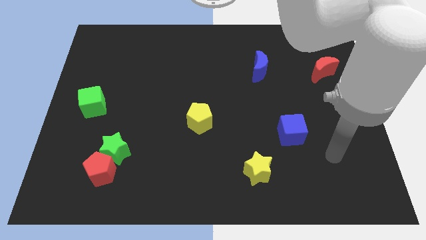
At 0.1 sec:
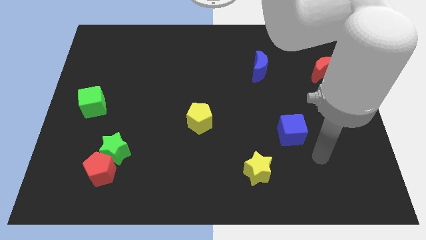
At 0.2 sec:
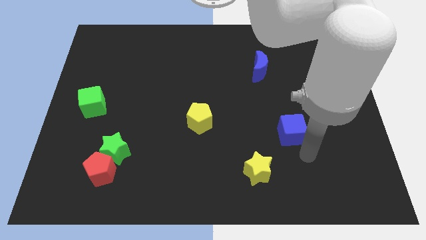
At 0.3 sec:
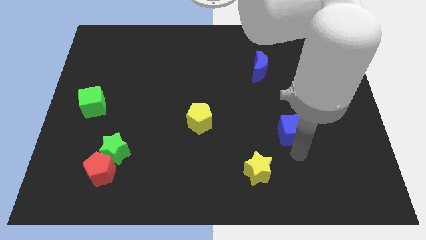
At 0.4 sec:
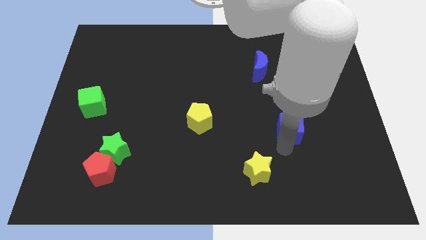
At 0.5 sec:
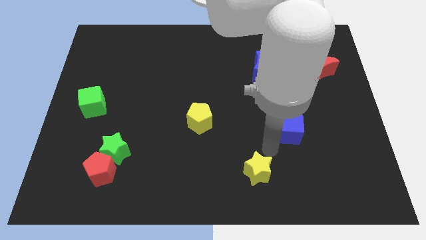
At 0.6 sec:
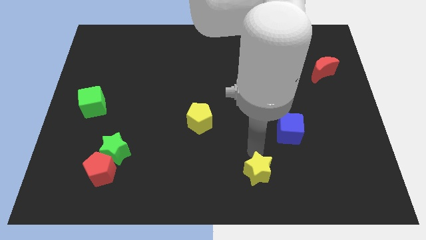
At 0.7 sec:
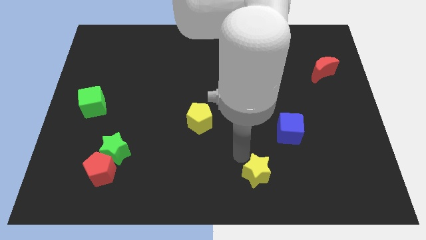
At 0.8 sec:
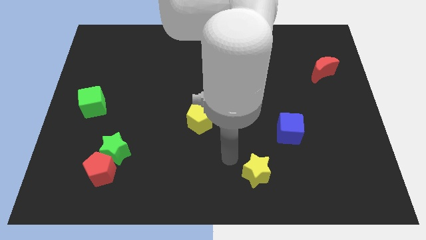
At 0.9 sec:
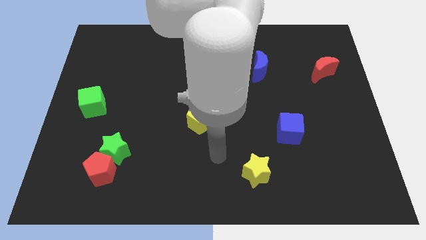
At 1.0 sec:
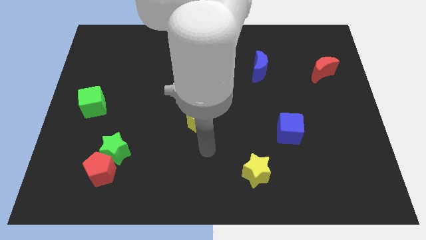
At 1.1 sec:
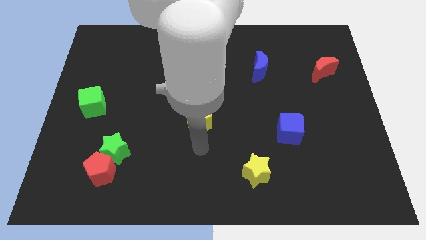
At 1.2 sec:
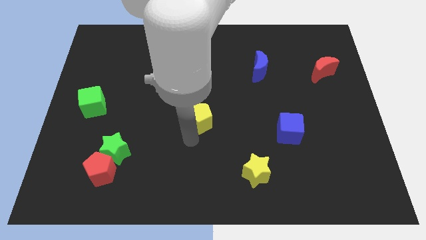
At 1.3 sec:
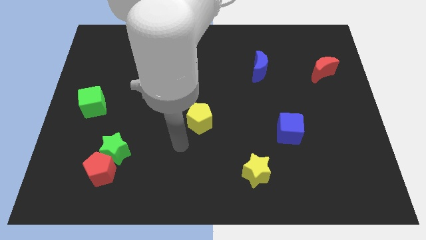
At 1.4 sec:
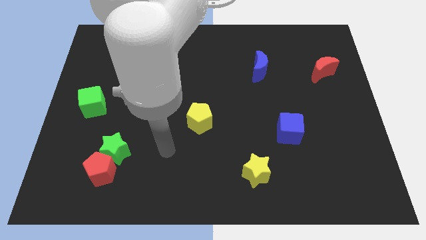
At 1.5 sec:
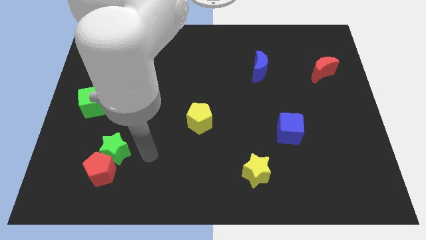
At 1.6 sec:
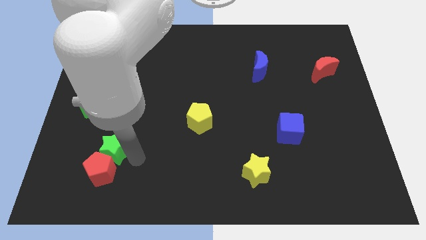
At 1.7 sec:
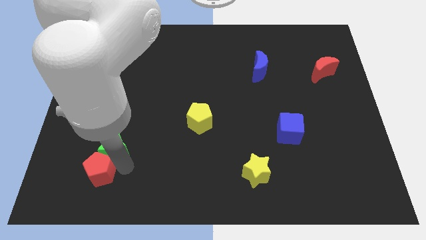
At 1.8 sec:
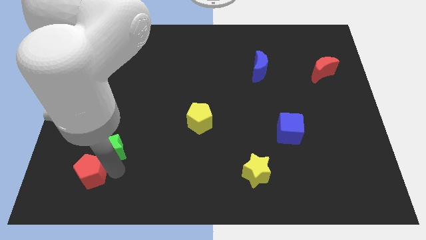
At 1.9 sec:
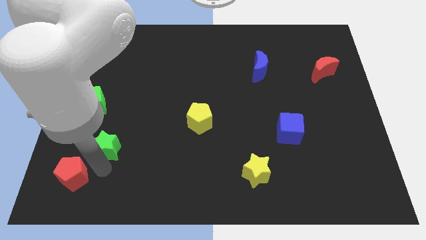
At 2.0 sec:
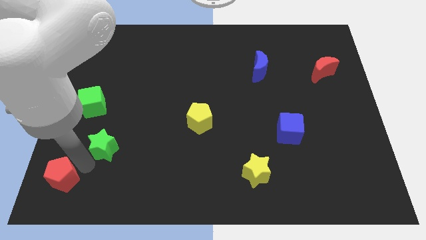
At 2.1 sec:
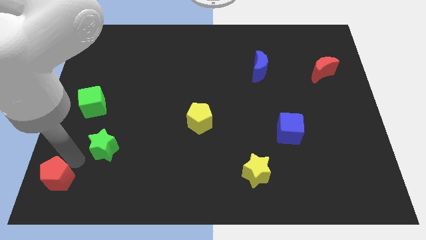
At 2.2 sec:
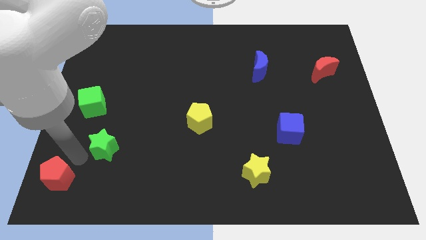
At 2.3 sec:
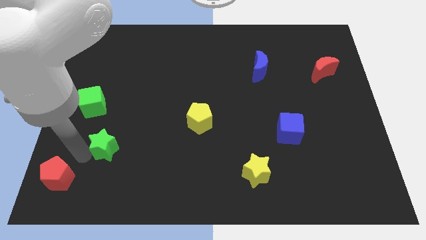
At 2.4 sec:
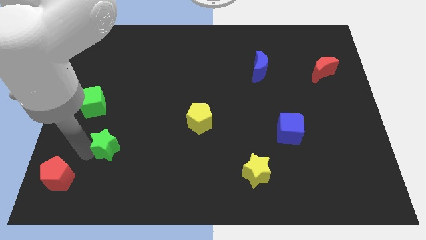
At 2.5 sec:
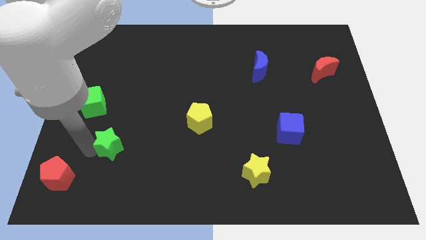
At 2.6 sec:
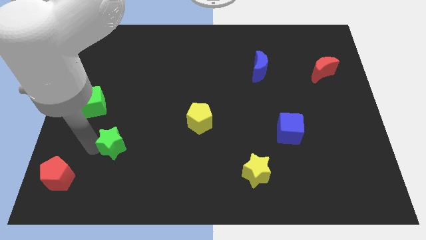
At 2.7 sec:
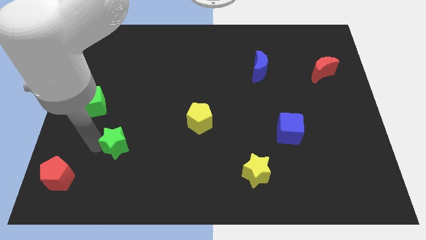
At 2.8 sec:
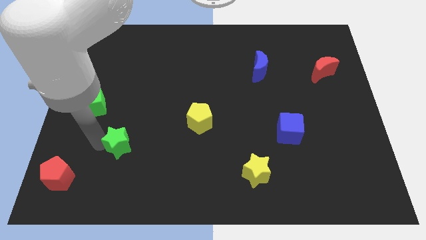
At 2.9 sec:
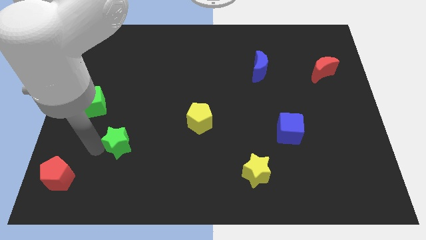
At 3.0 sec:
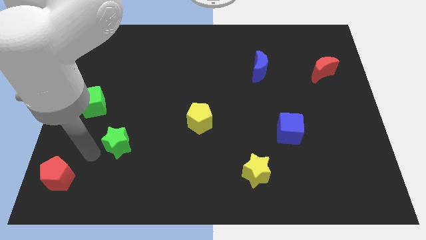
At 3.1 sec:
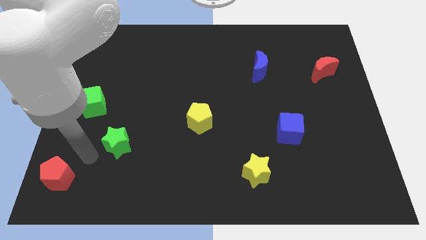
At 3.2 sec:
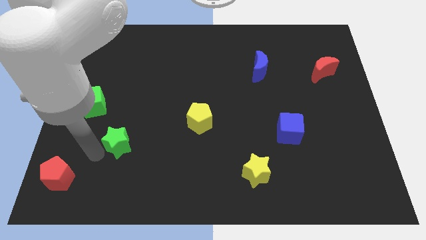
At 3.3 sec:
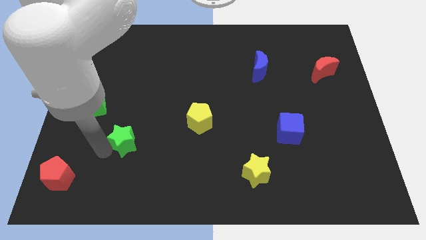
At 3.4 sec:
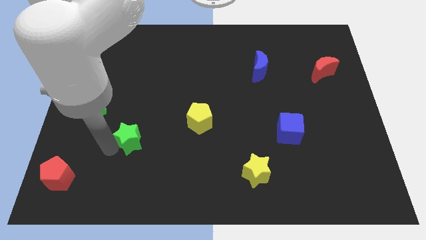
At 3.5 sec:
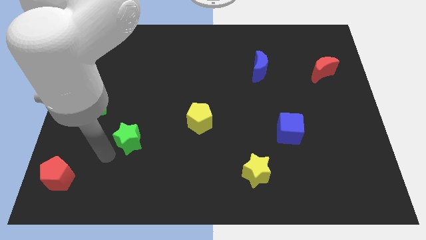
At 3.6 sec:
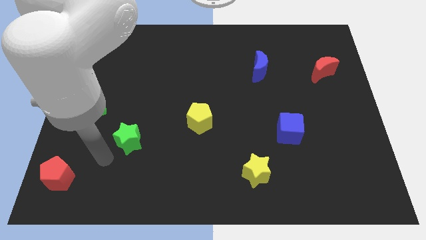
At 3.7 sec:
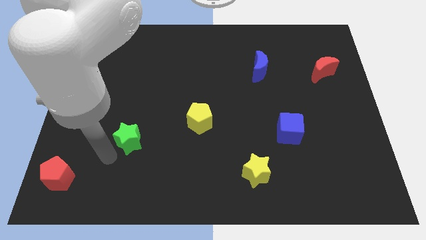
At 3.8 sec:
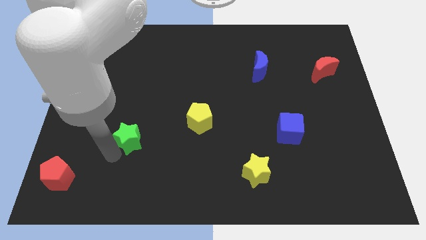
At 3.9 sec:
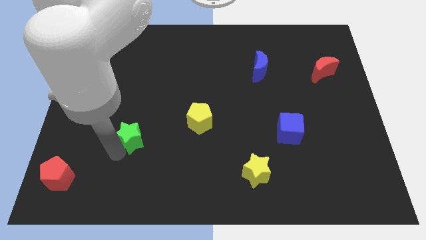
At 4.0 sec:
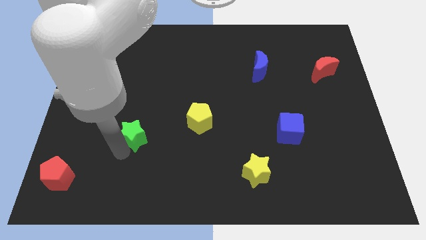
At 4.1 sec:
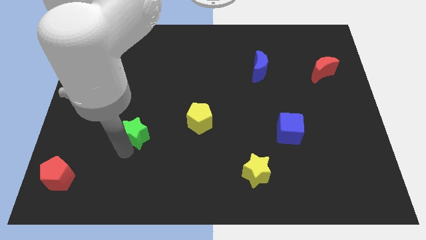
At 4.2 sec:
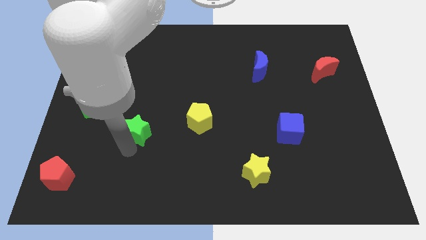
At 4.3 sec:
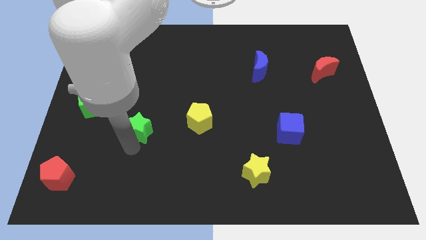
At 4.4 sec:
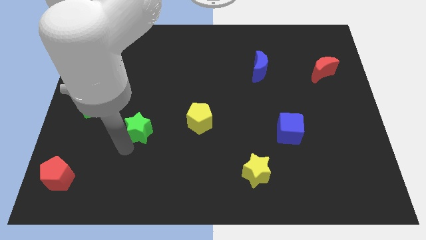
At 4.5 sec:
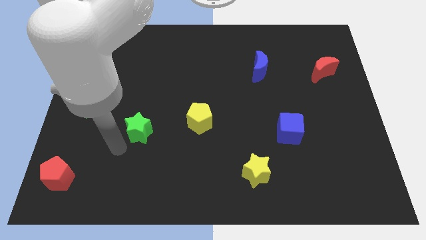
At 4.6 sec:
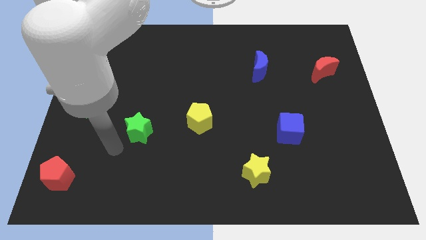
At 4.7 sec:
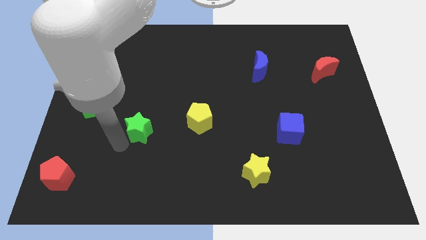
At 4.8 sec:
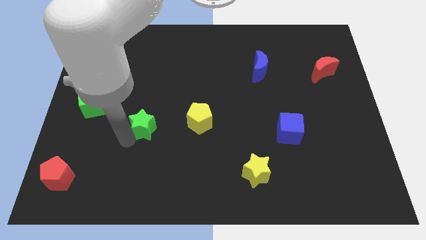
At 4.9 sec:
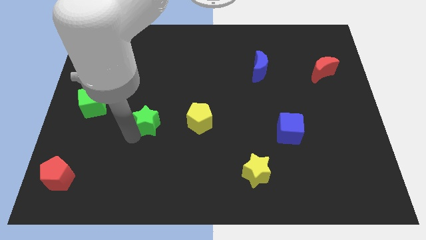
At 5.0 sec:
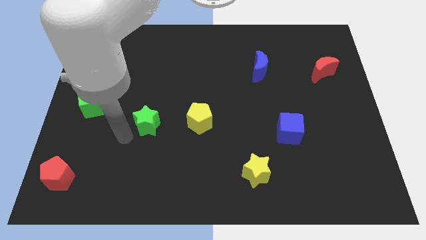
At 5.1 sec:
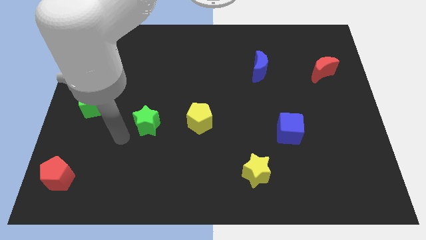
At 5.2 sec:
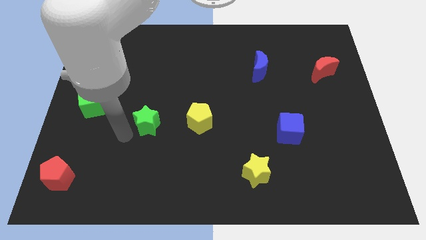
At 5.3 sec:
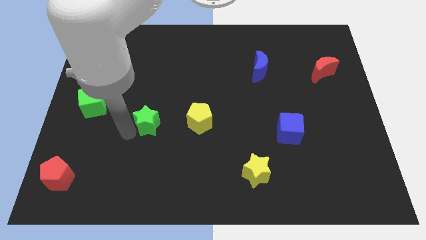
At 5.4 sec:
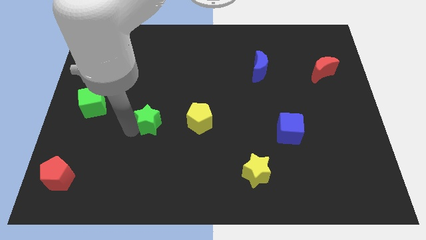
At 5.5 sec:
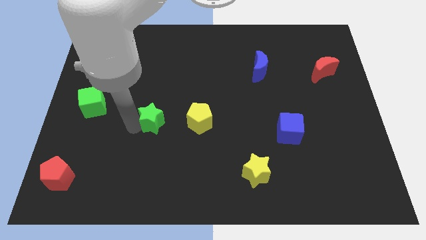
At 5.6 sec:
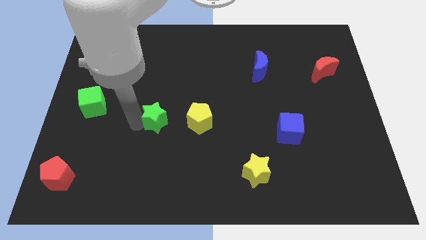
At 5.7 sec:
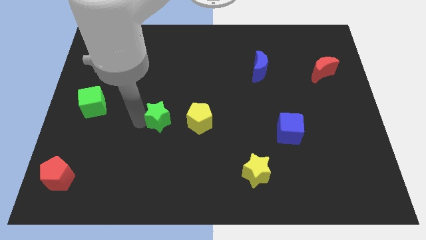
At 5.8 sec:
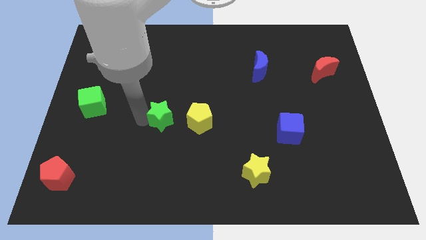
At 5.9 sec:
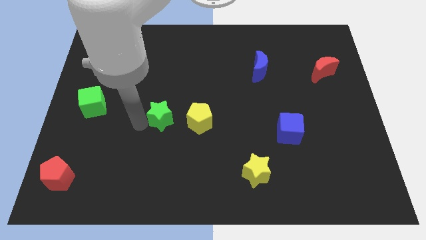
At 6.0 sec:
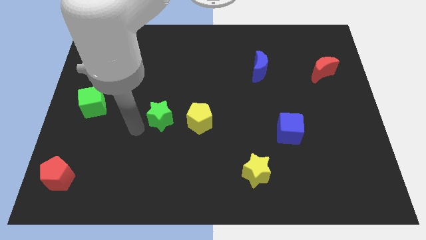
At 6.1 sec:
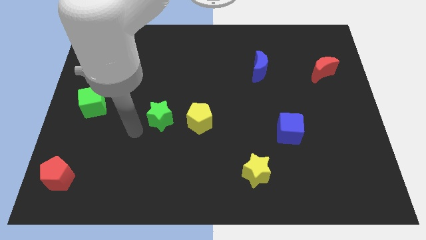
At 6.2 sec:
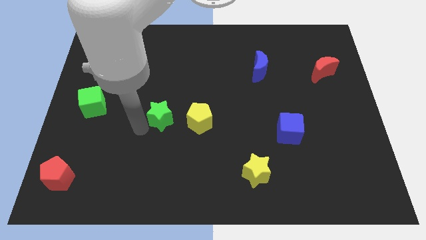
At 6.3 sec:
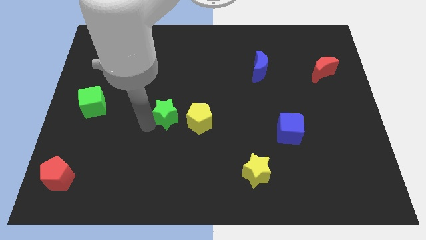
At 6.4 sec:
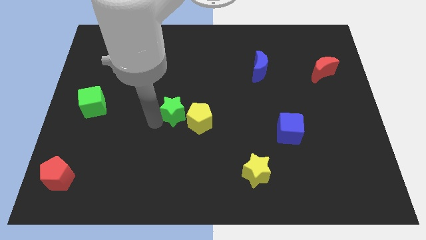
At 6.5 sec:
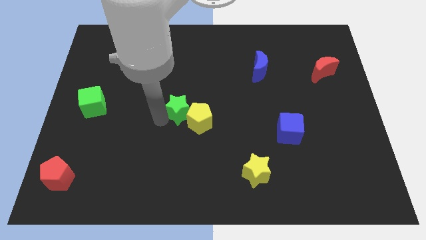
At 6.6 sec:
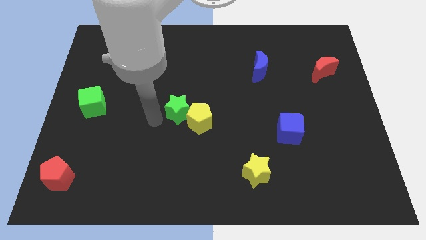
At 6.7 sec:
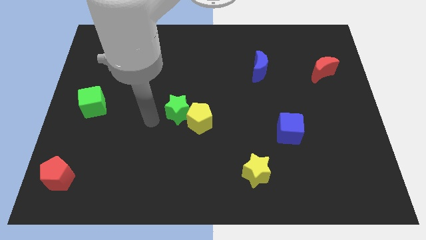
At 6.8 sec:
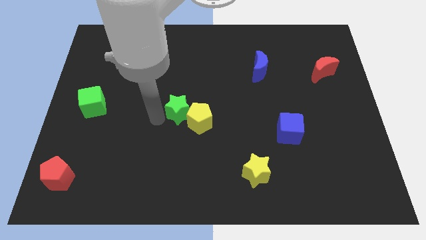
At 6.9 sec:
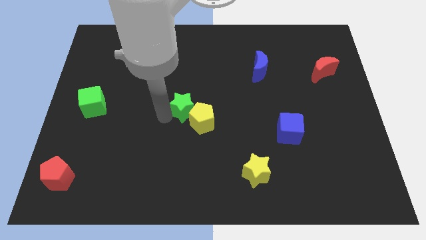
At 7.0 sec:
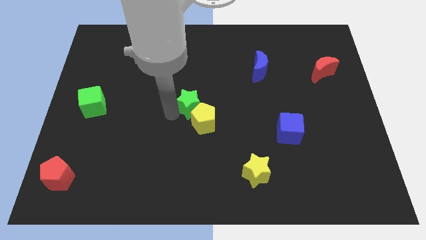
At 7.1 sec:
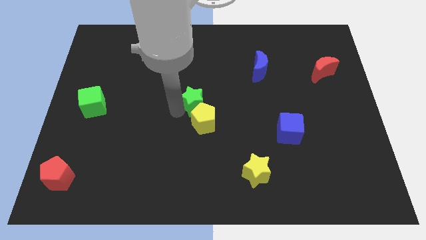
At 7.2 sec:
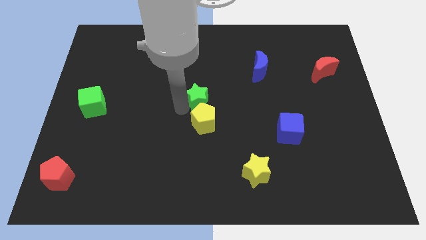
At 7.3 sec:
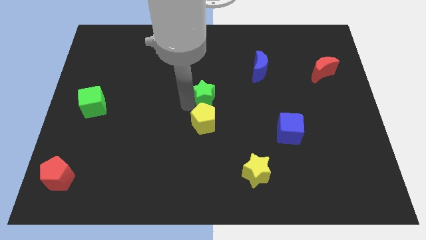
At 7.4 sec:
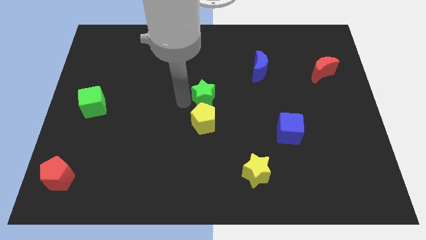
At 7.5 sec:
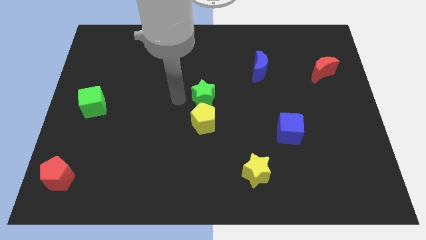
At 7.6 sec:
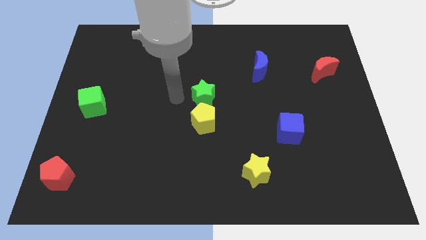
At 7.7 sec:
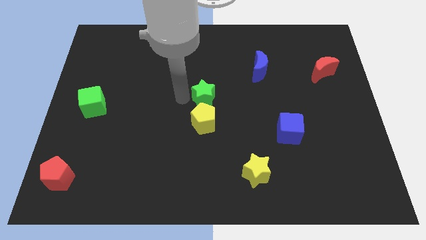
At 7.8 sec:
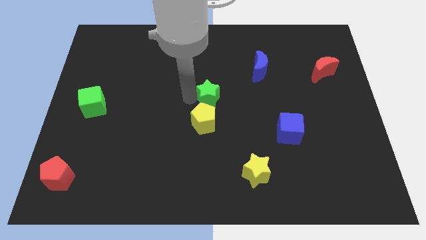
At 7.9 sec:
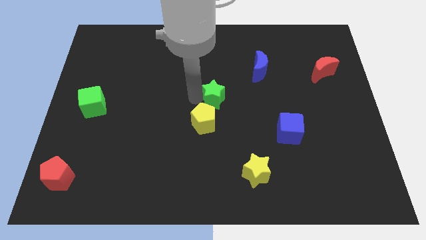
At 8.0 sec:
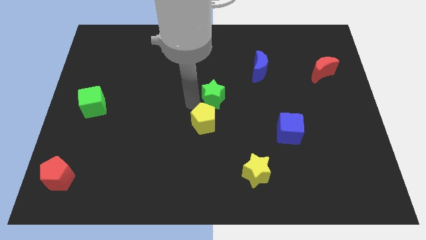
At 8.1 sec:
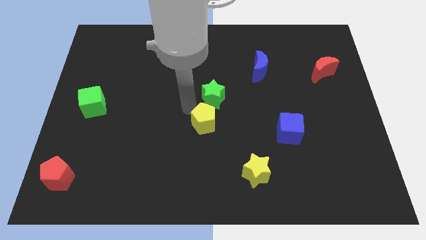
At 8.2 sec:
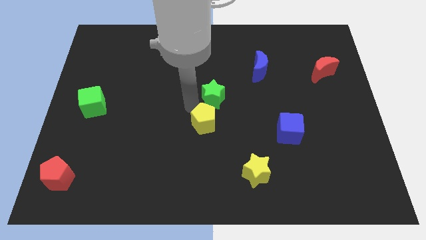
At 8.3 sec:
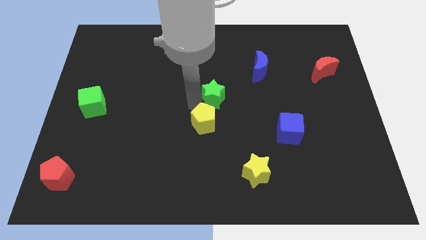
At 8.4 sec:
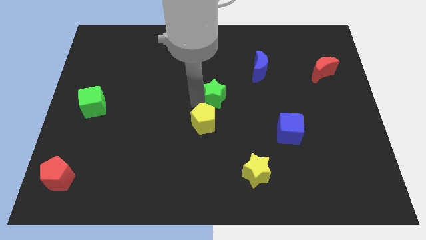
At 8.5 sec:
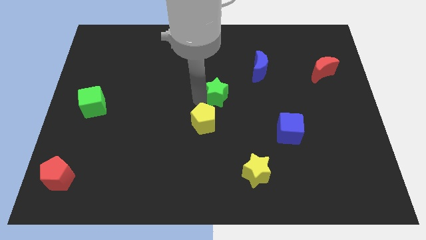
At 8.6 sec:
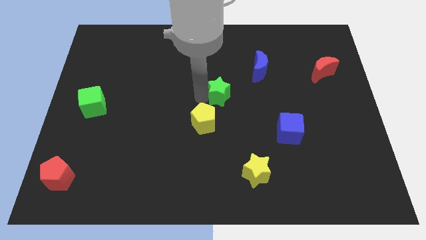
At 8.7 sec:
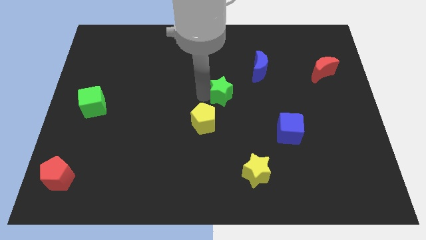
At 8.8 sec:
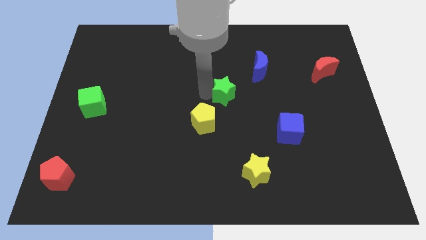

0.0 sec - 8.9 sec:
slide the green star to the bottom left side of the blue moon
